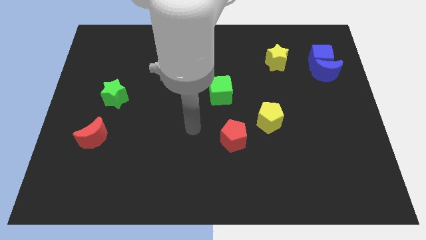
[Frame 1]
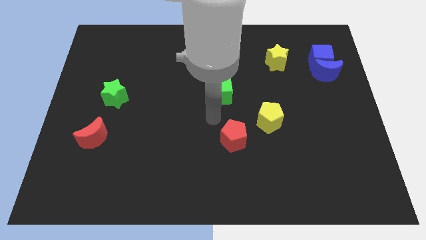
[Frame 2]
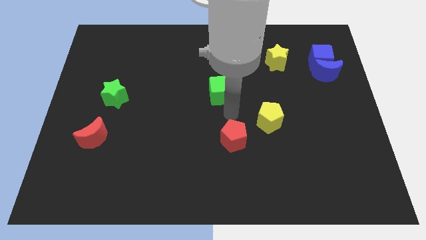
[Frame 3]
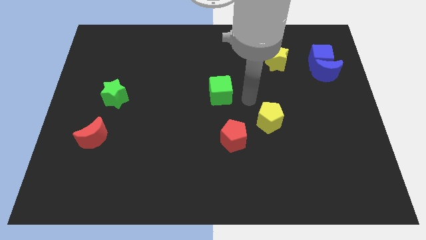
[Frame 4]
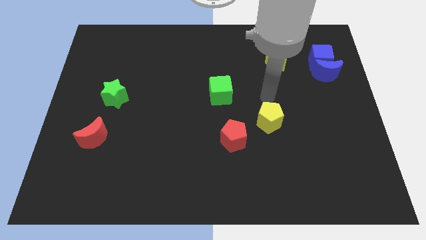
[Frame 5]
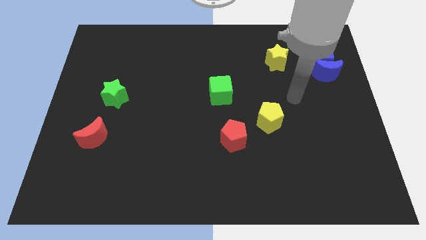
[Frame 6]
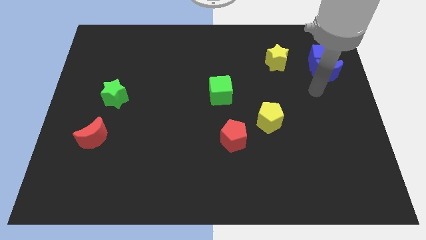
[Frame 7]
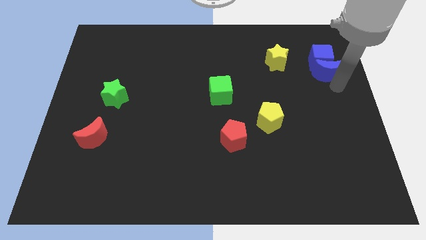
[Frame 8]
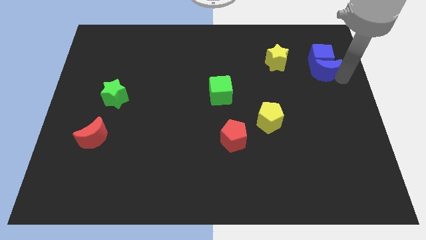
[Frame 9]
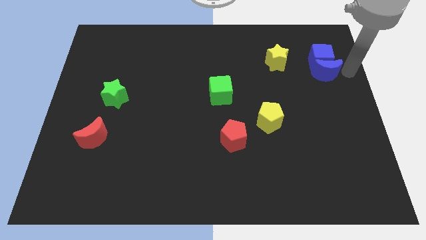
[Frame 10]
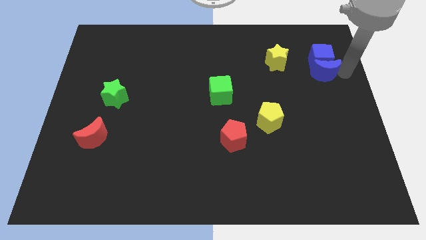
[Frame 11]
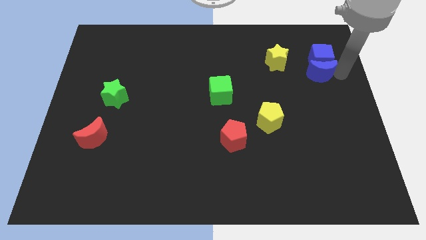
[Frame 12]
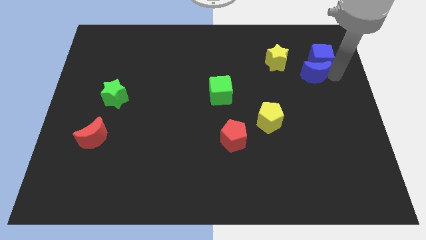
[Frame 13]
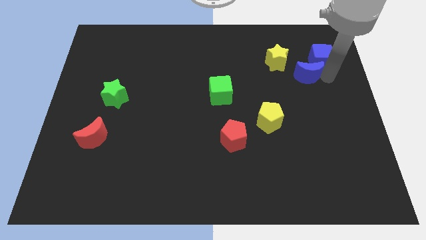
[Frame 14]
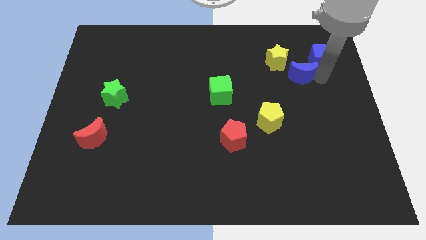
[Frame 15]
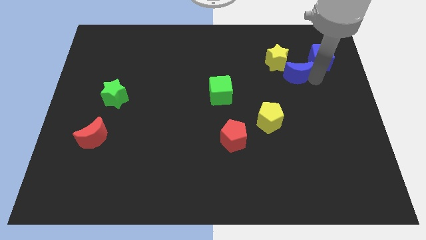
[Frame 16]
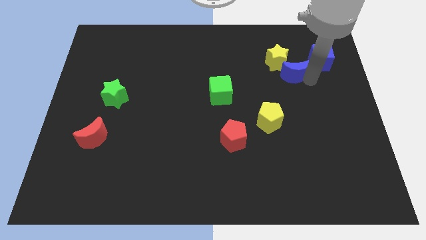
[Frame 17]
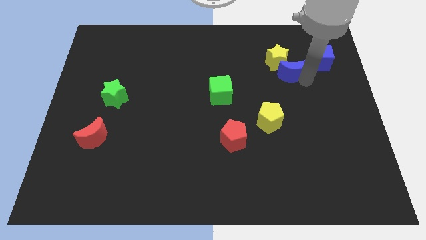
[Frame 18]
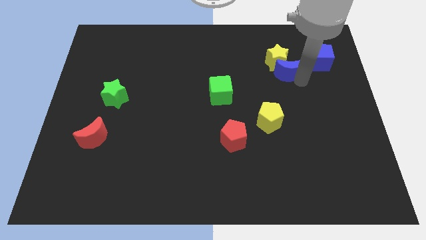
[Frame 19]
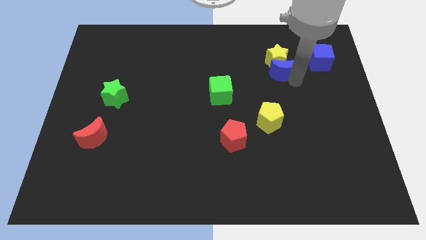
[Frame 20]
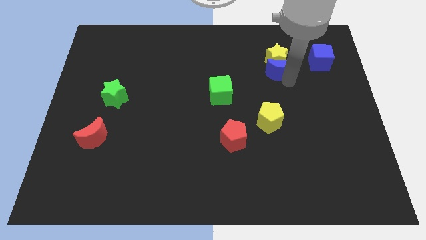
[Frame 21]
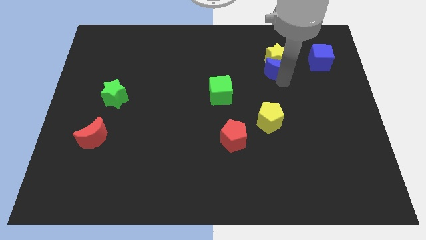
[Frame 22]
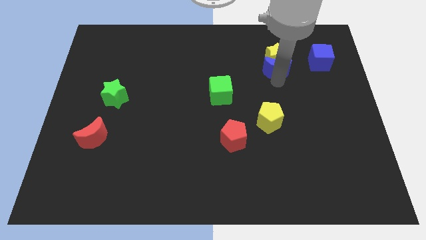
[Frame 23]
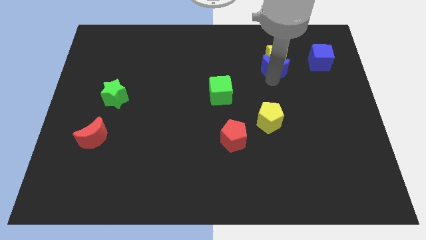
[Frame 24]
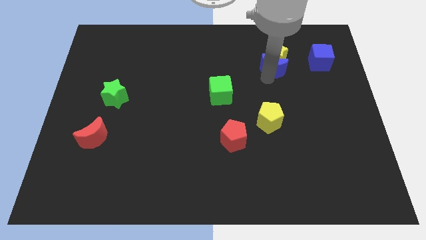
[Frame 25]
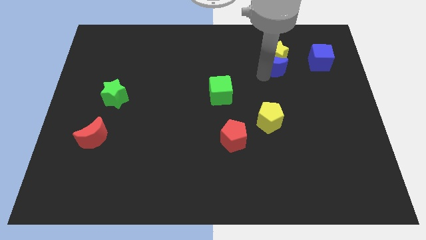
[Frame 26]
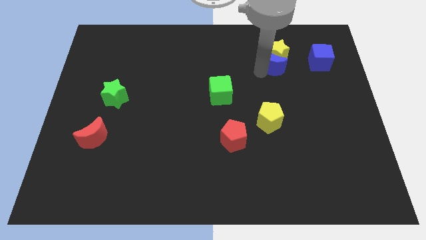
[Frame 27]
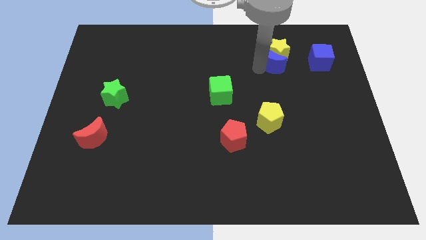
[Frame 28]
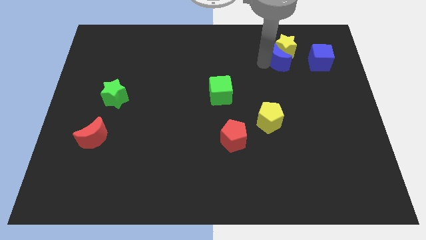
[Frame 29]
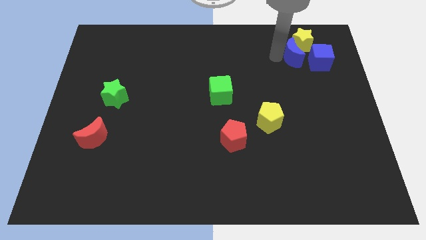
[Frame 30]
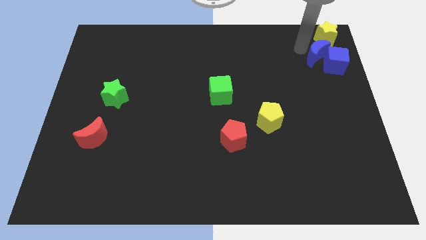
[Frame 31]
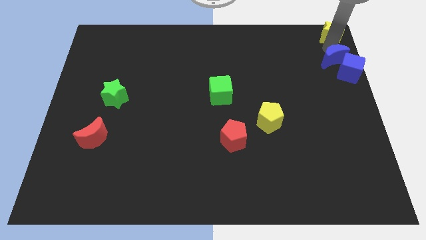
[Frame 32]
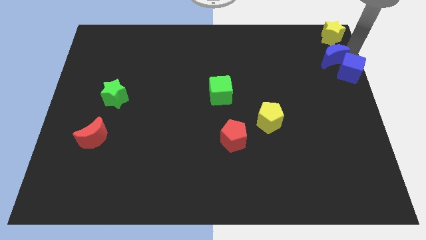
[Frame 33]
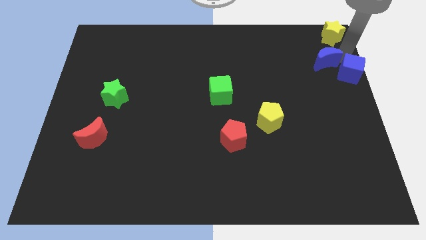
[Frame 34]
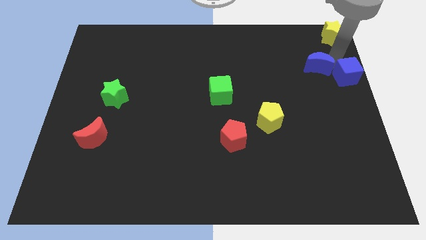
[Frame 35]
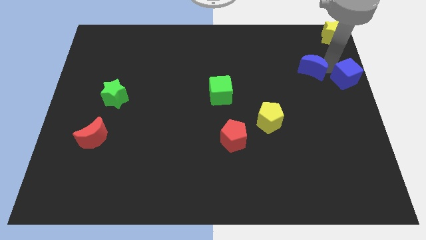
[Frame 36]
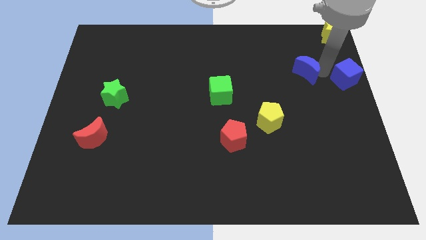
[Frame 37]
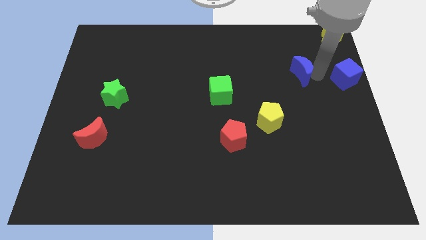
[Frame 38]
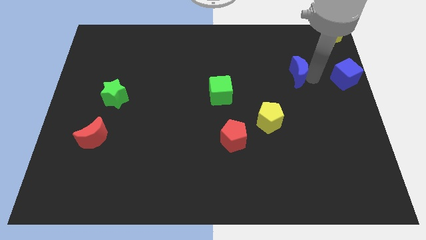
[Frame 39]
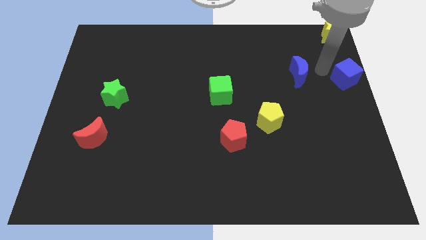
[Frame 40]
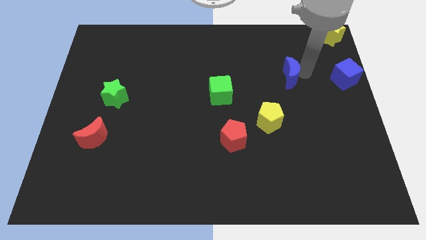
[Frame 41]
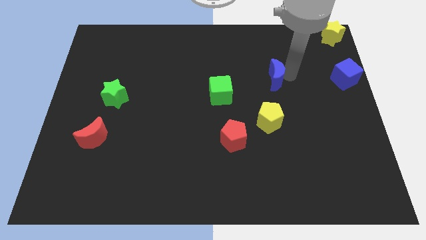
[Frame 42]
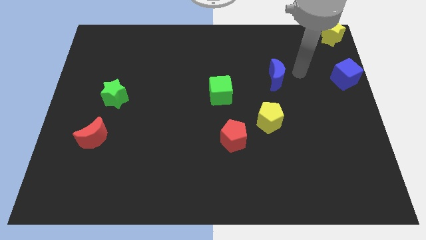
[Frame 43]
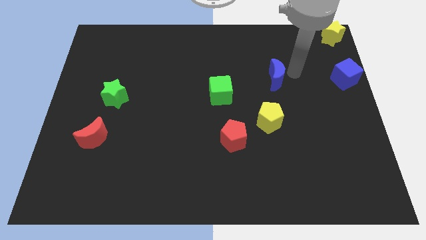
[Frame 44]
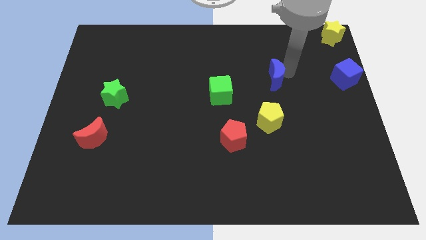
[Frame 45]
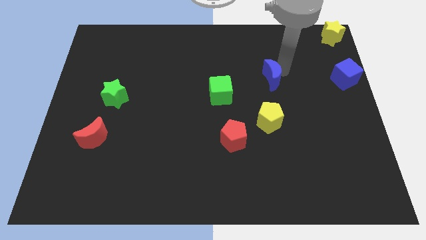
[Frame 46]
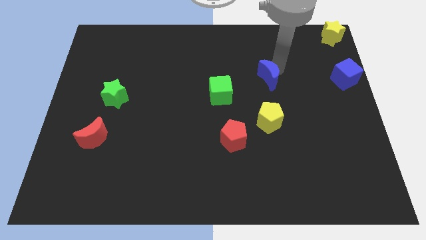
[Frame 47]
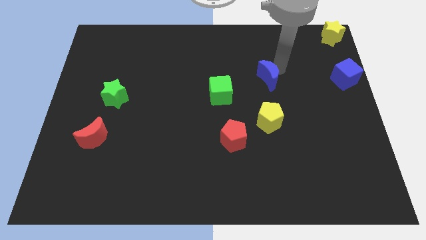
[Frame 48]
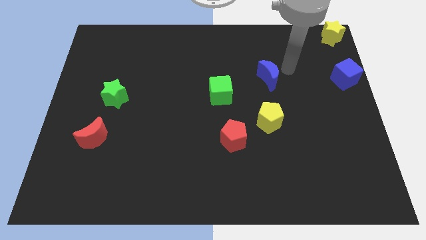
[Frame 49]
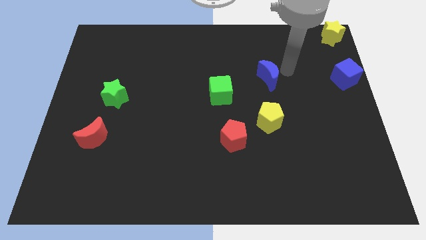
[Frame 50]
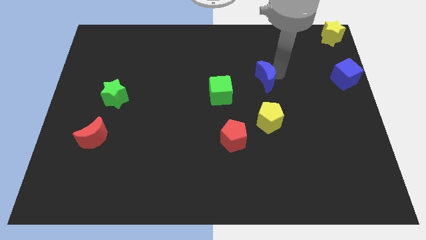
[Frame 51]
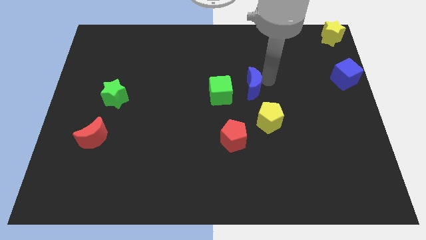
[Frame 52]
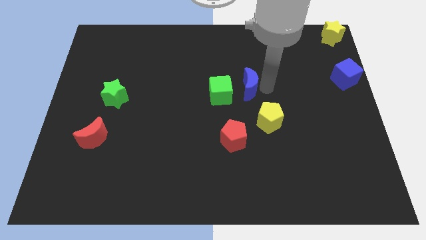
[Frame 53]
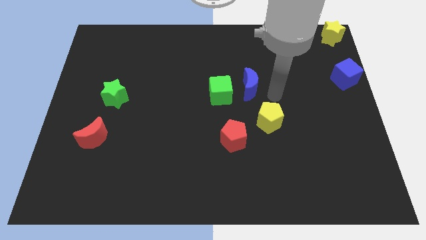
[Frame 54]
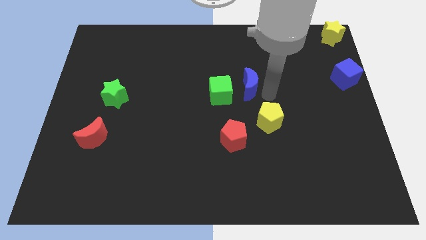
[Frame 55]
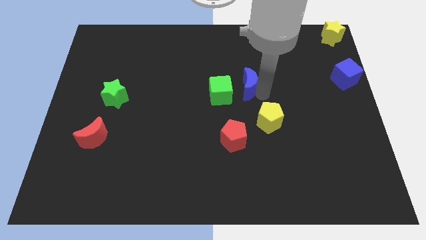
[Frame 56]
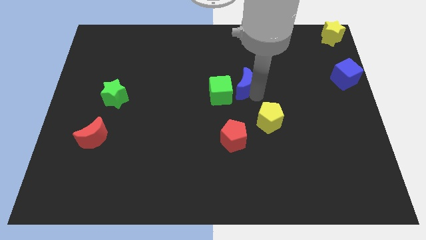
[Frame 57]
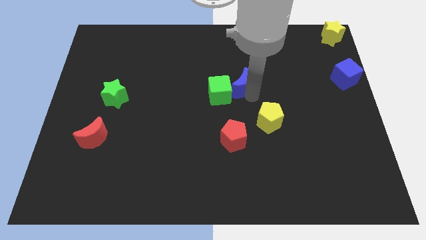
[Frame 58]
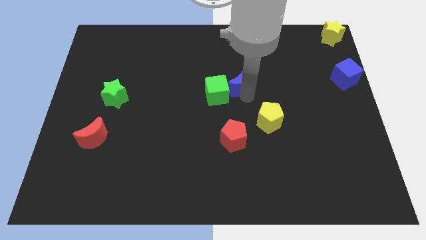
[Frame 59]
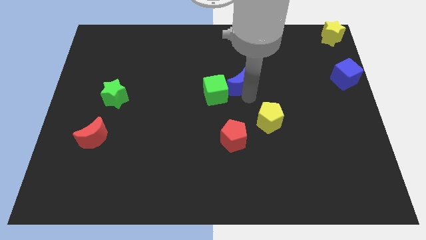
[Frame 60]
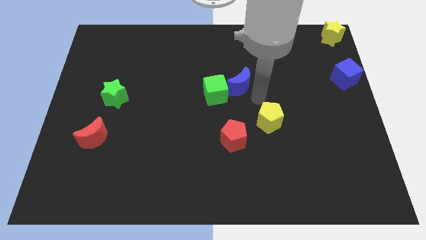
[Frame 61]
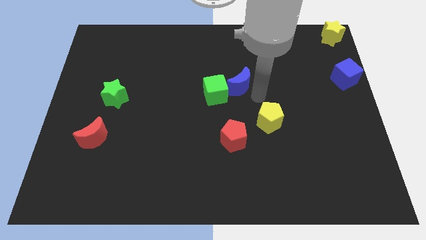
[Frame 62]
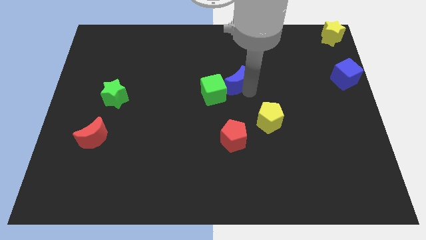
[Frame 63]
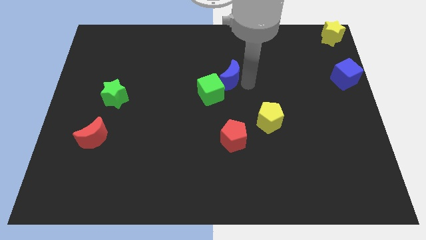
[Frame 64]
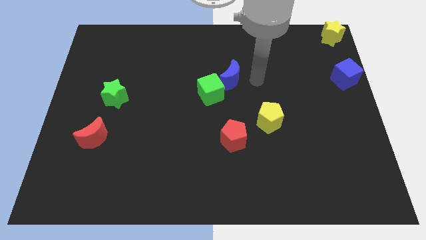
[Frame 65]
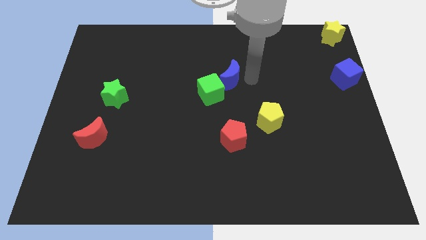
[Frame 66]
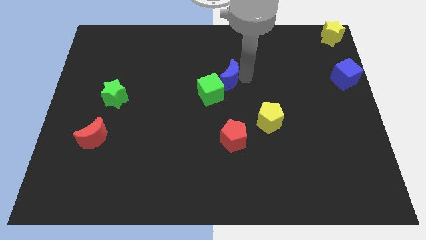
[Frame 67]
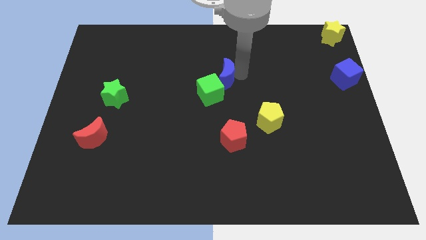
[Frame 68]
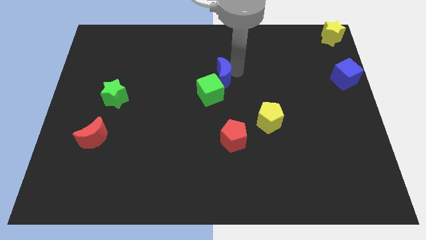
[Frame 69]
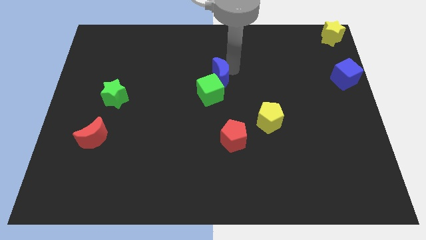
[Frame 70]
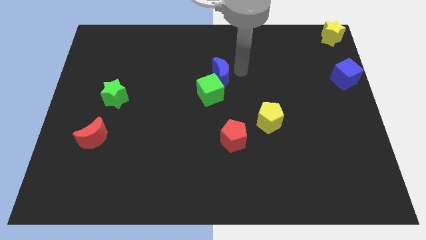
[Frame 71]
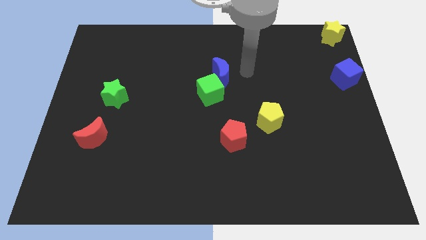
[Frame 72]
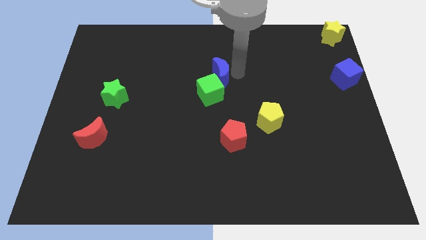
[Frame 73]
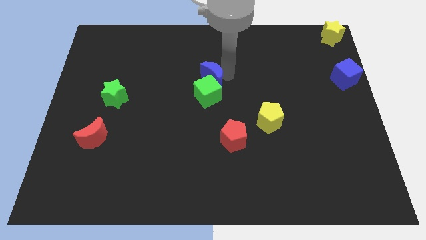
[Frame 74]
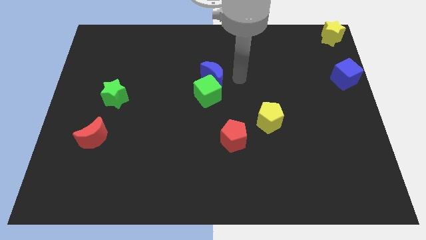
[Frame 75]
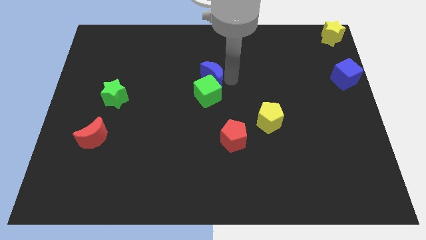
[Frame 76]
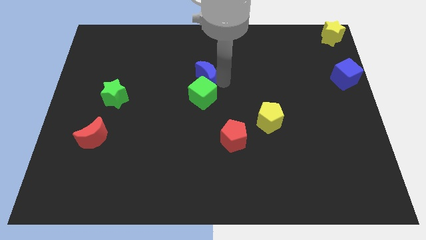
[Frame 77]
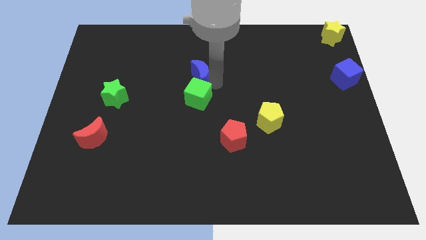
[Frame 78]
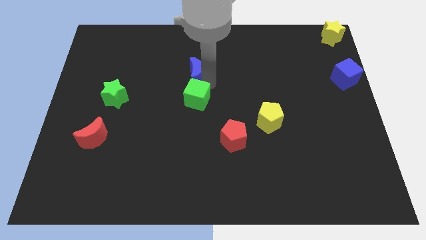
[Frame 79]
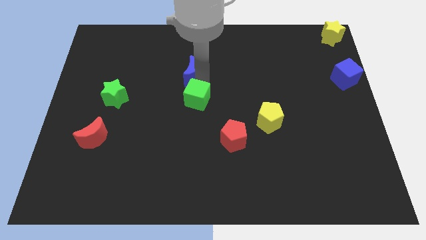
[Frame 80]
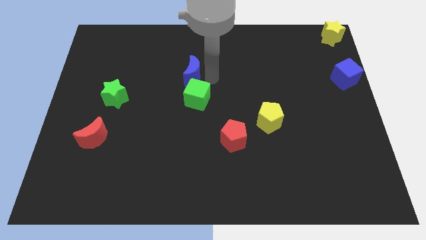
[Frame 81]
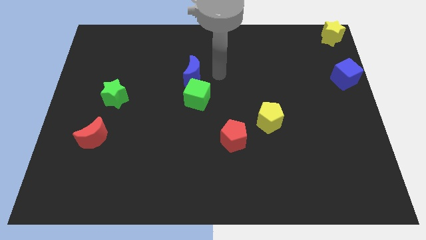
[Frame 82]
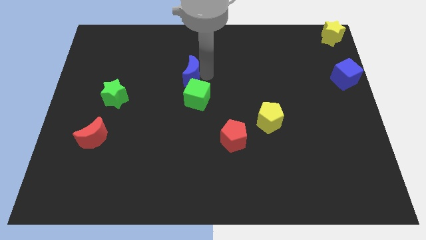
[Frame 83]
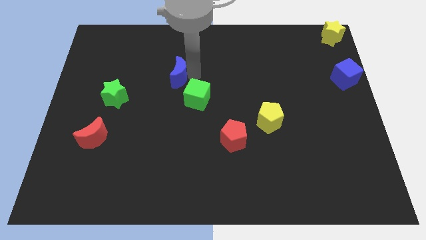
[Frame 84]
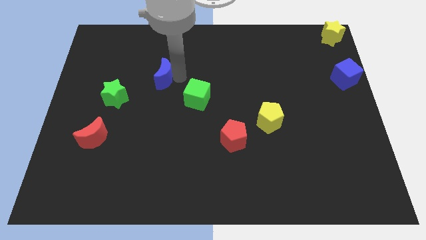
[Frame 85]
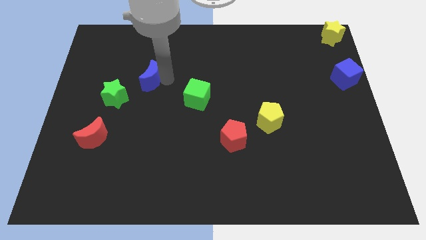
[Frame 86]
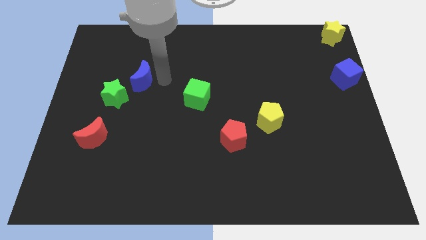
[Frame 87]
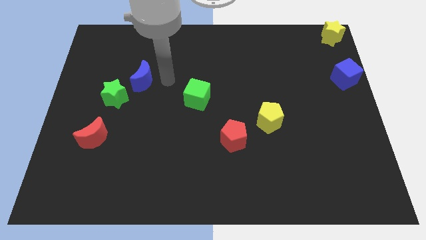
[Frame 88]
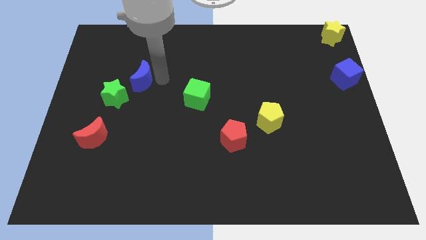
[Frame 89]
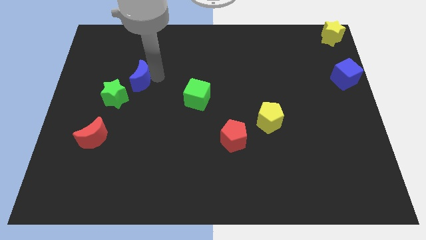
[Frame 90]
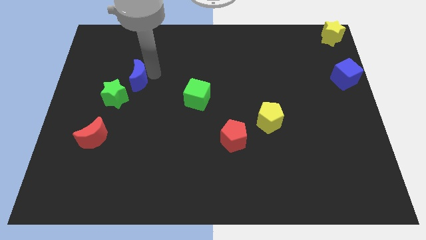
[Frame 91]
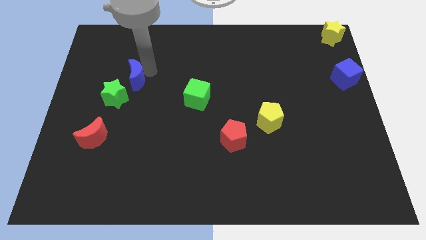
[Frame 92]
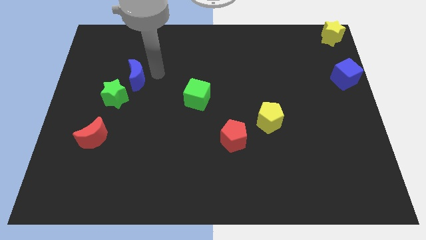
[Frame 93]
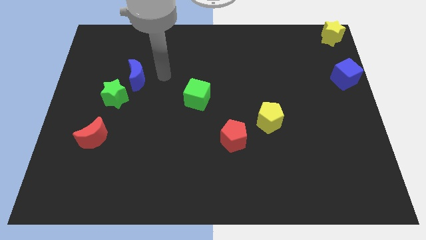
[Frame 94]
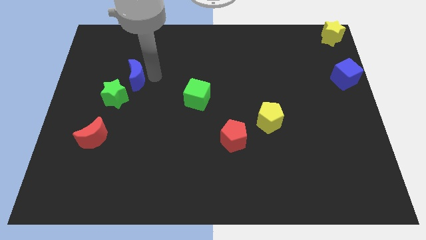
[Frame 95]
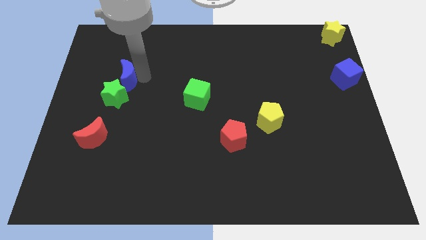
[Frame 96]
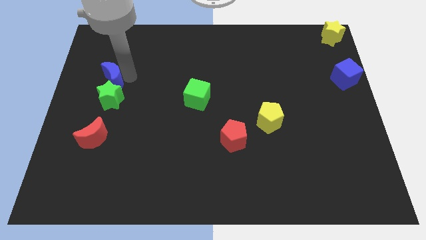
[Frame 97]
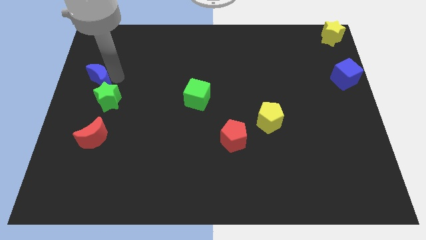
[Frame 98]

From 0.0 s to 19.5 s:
push the blue moon to the left side of the board
